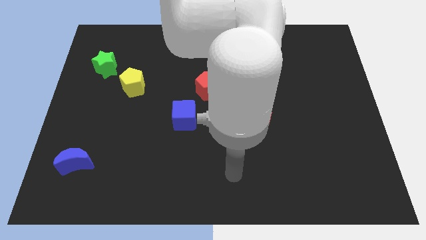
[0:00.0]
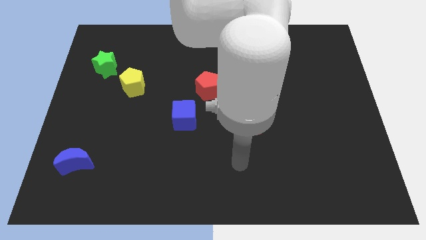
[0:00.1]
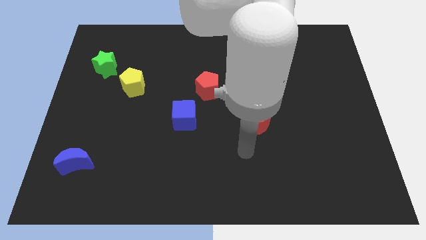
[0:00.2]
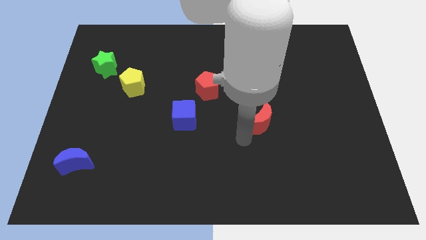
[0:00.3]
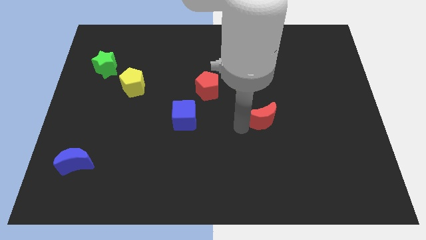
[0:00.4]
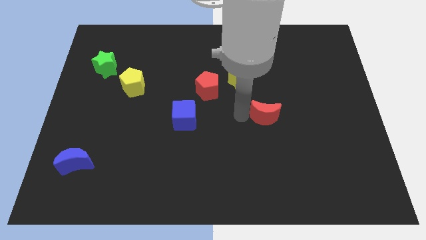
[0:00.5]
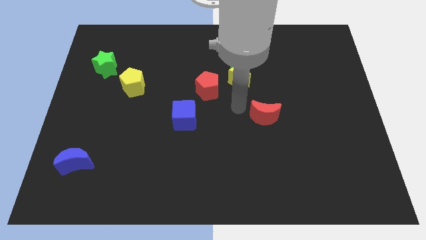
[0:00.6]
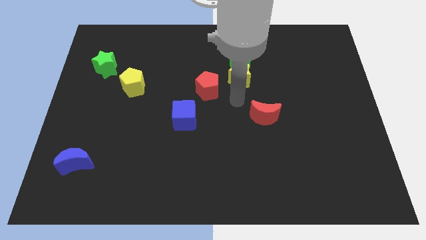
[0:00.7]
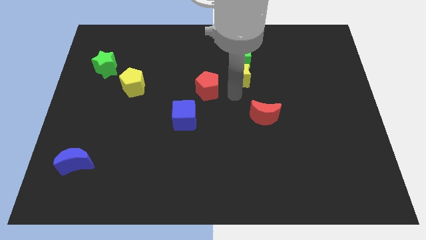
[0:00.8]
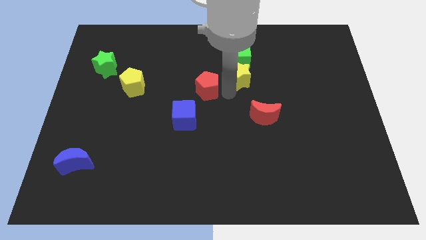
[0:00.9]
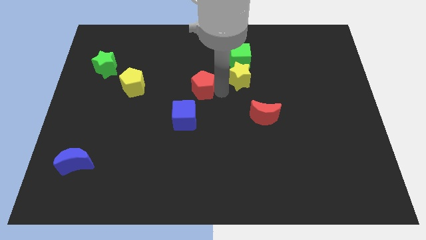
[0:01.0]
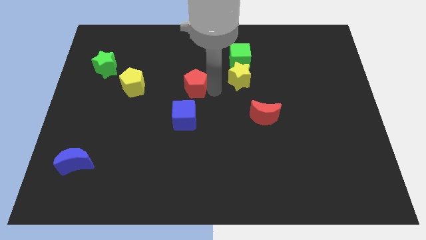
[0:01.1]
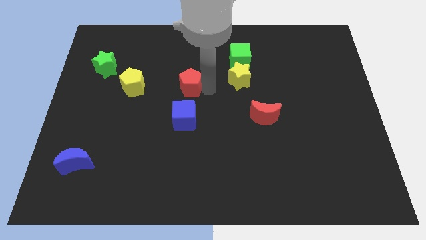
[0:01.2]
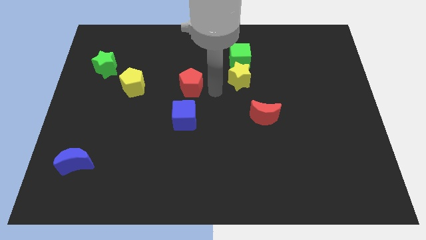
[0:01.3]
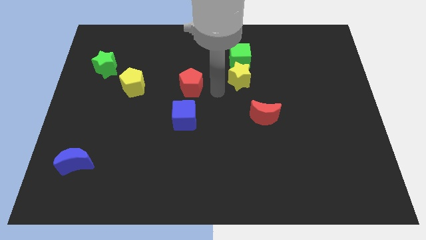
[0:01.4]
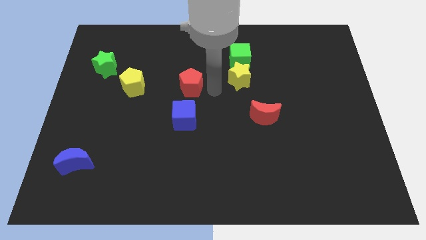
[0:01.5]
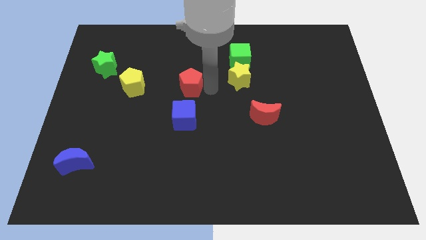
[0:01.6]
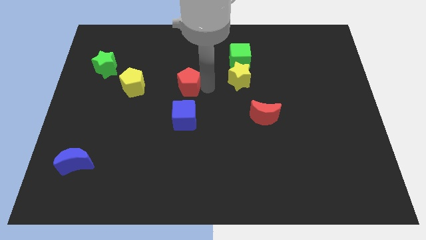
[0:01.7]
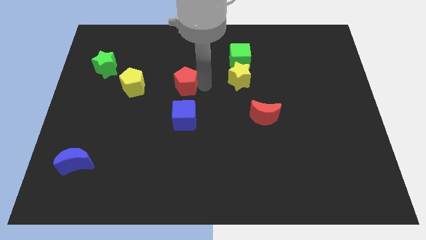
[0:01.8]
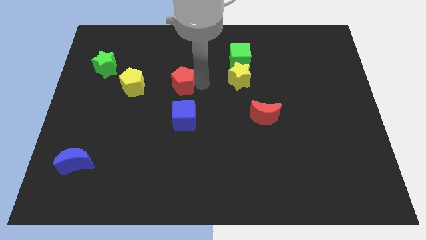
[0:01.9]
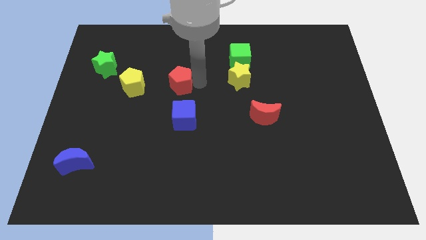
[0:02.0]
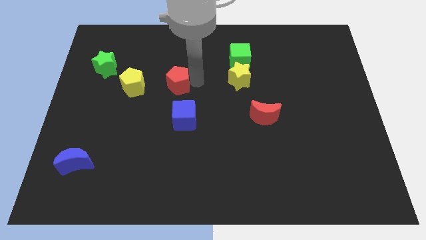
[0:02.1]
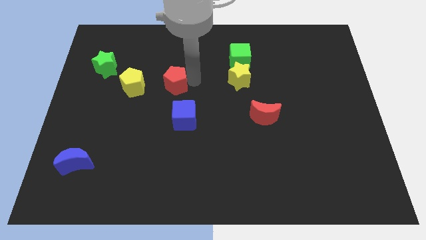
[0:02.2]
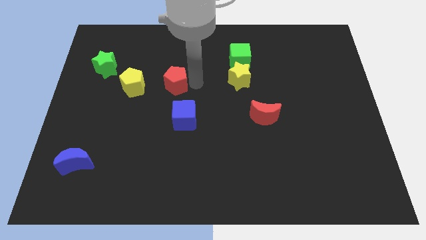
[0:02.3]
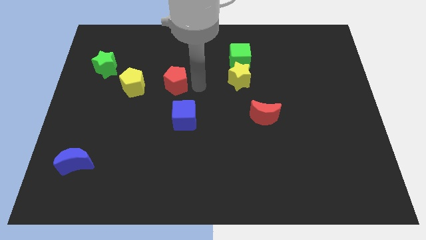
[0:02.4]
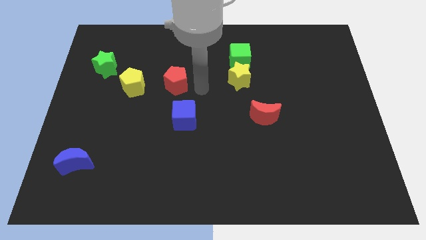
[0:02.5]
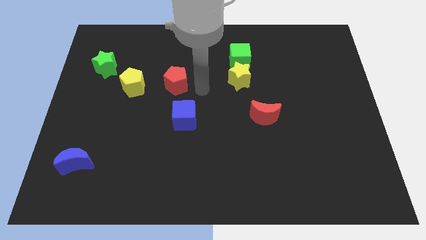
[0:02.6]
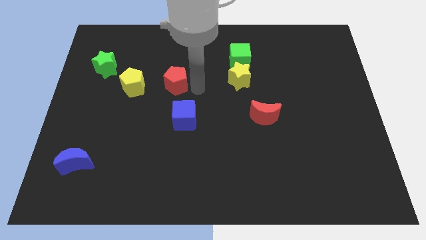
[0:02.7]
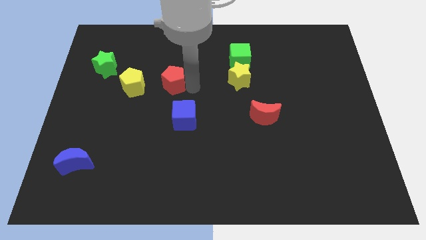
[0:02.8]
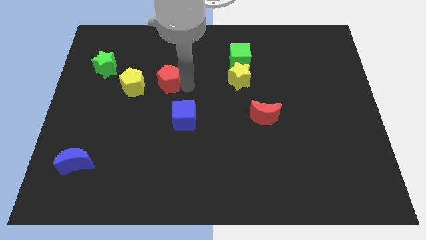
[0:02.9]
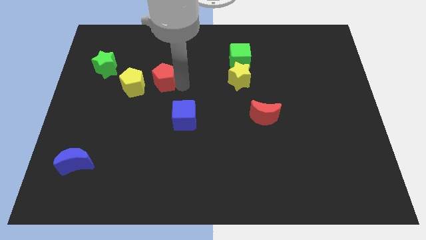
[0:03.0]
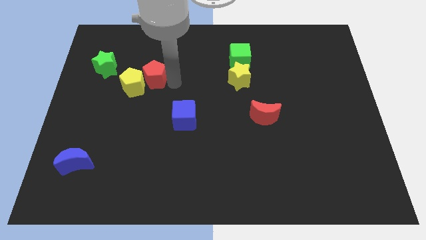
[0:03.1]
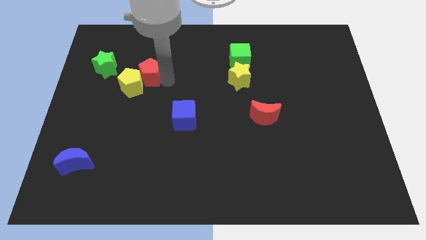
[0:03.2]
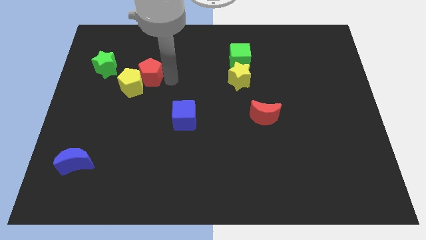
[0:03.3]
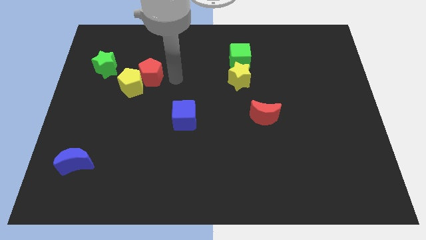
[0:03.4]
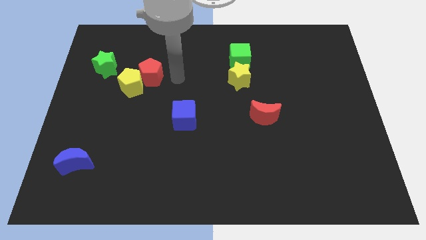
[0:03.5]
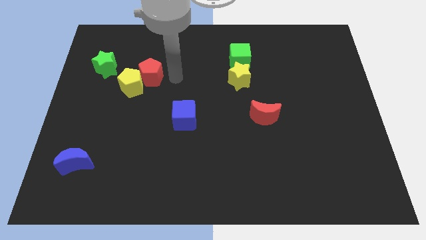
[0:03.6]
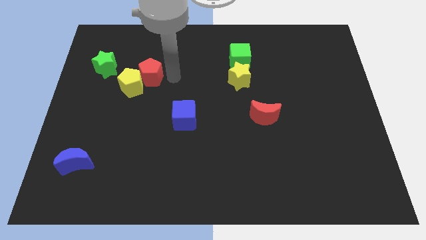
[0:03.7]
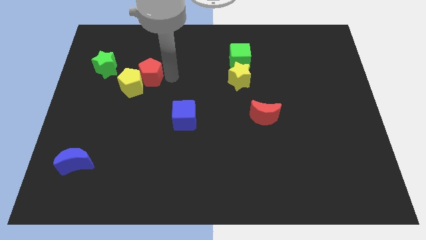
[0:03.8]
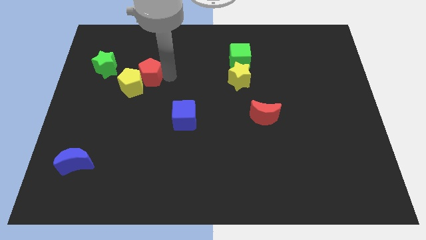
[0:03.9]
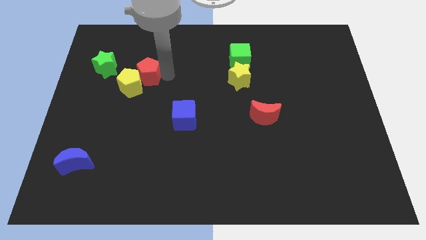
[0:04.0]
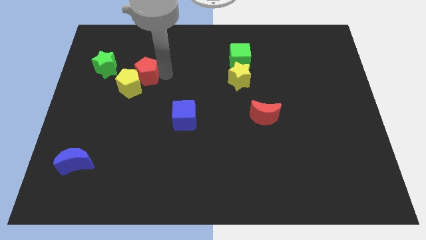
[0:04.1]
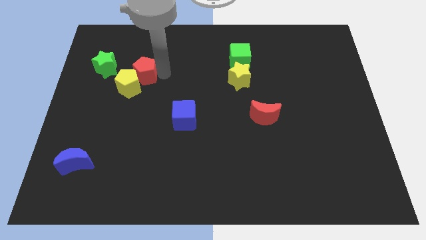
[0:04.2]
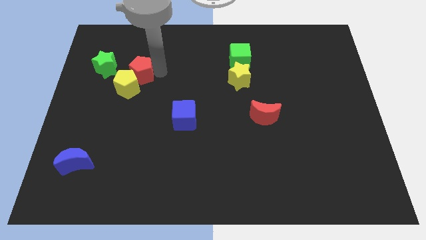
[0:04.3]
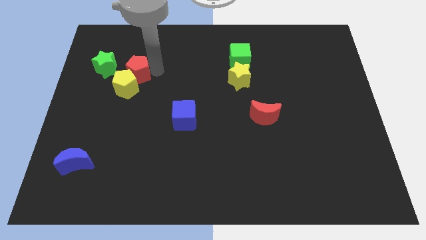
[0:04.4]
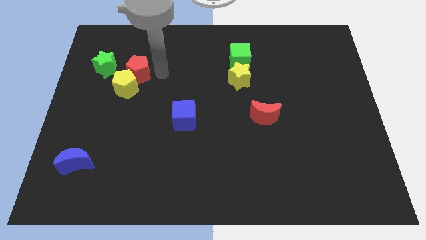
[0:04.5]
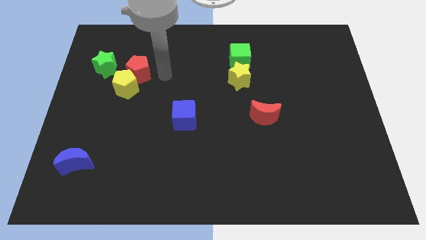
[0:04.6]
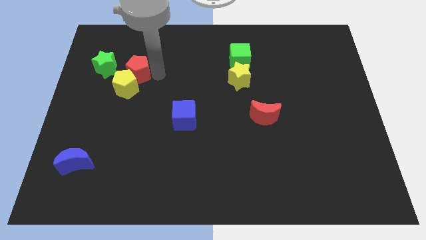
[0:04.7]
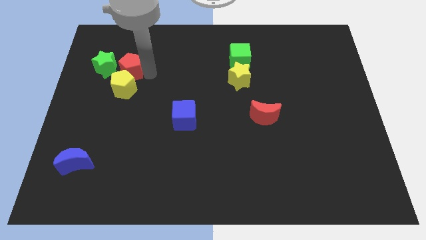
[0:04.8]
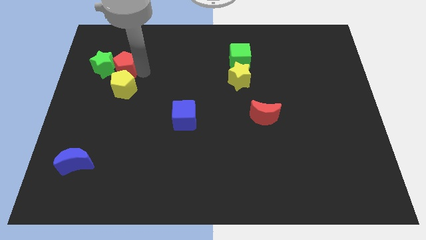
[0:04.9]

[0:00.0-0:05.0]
push the red pentagon towards the green star

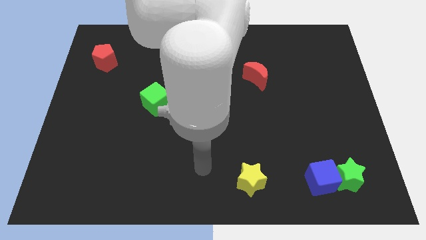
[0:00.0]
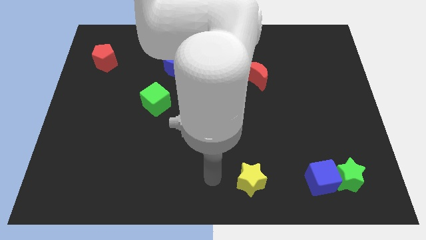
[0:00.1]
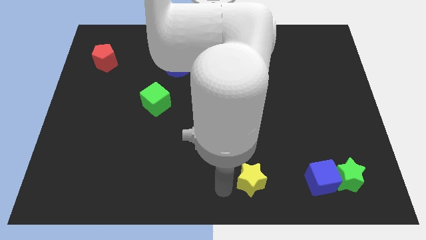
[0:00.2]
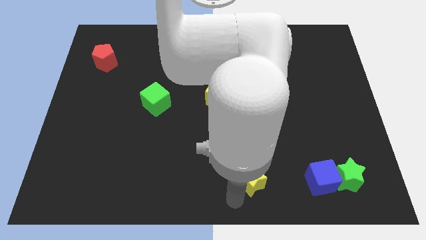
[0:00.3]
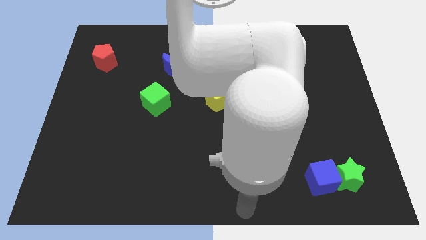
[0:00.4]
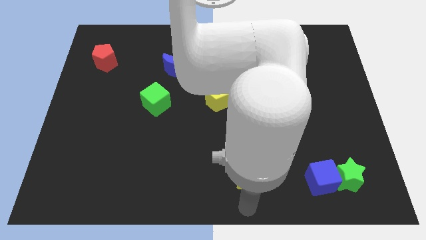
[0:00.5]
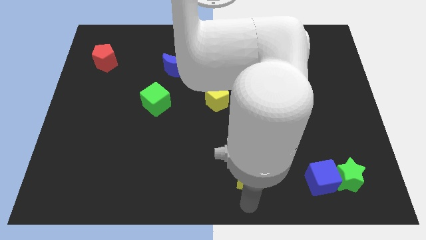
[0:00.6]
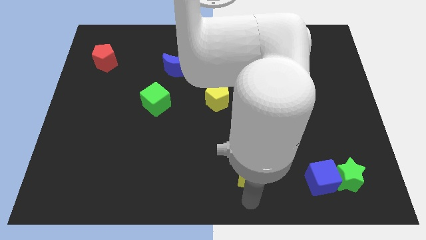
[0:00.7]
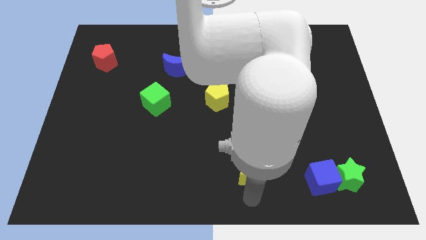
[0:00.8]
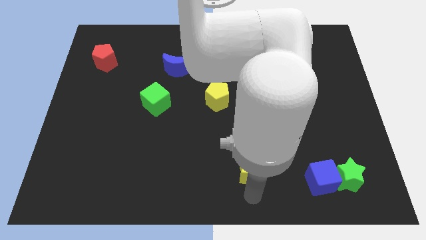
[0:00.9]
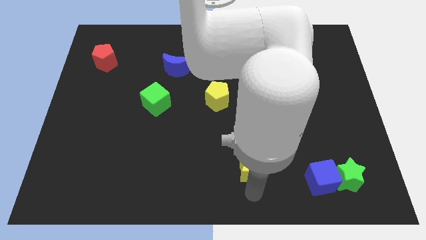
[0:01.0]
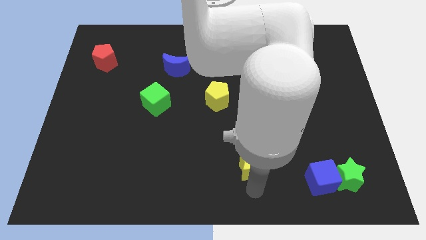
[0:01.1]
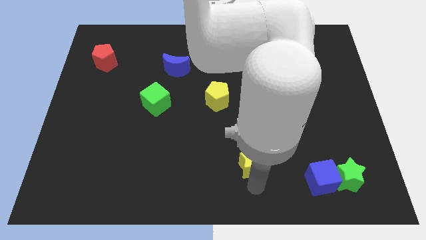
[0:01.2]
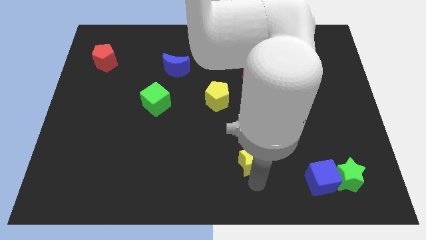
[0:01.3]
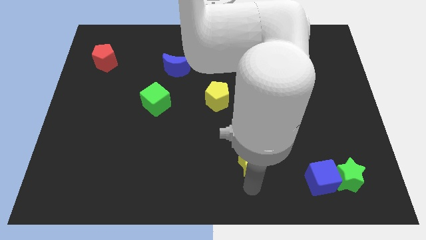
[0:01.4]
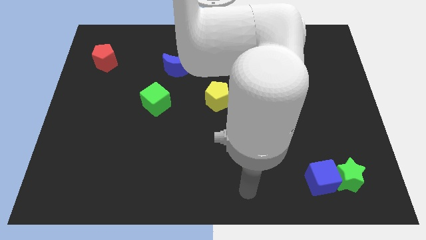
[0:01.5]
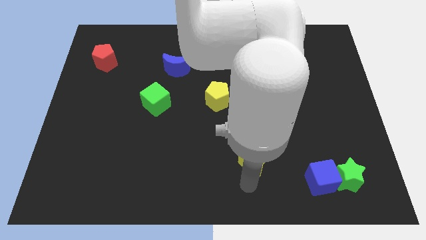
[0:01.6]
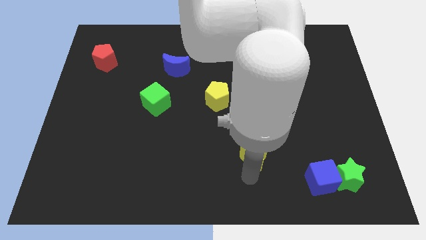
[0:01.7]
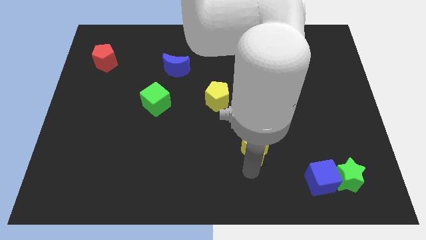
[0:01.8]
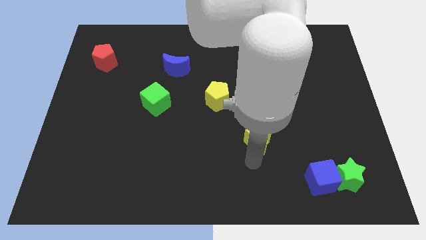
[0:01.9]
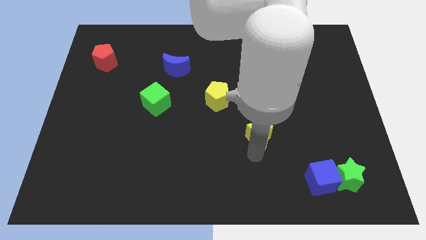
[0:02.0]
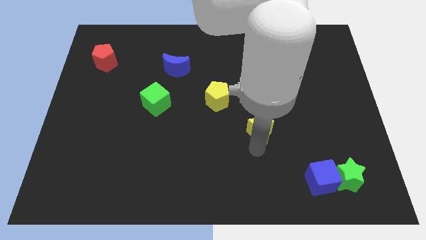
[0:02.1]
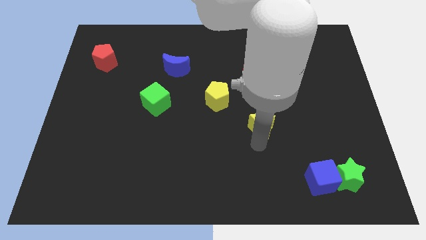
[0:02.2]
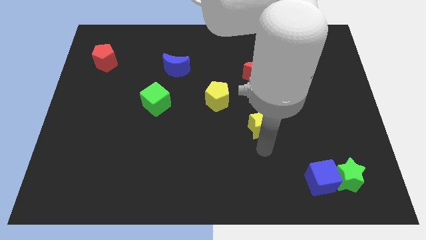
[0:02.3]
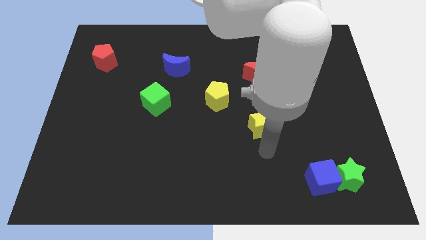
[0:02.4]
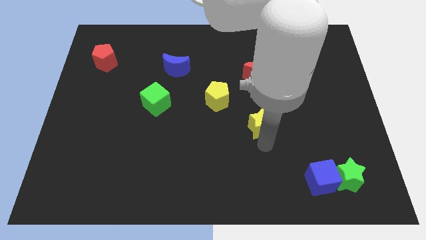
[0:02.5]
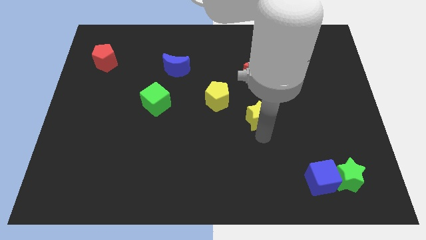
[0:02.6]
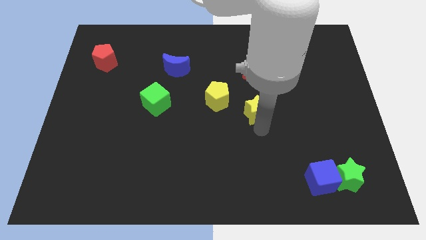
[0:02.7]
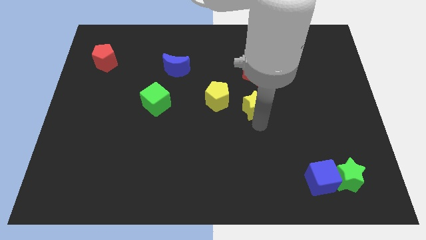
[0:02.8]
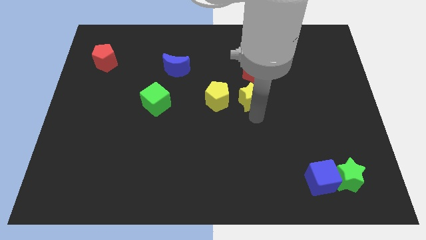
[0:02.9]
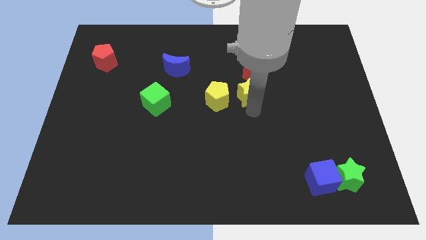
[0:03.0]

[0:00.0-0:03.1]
slide the yellow star towards the red moon
